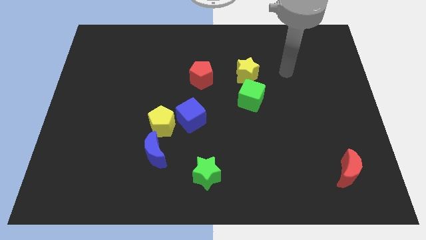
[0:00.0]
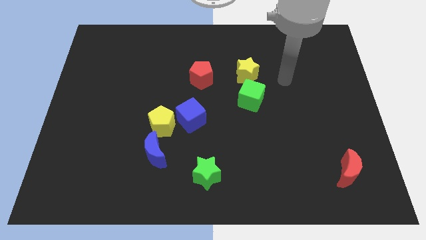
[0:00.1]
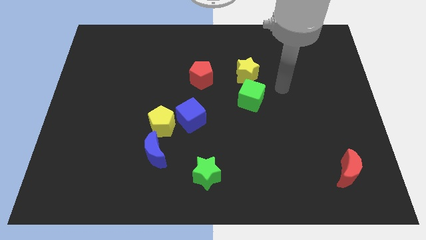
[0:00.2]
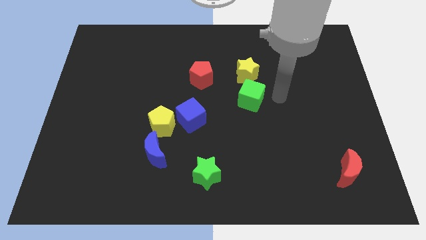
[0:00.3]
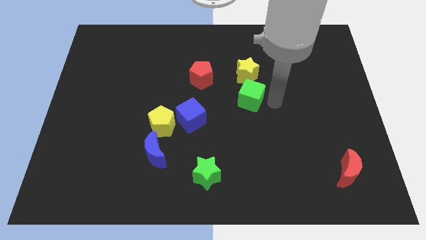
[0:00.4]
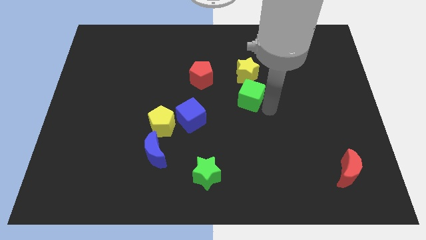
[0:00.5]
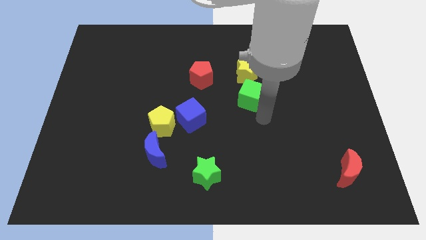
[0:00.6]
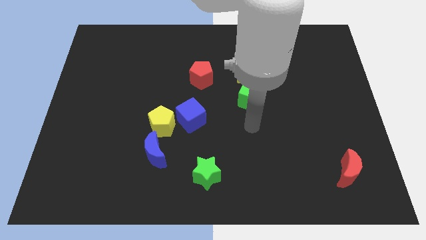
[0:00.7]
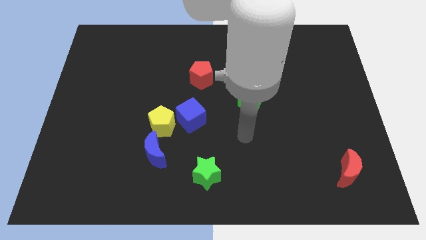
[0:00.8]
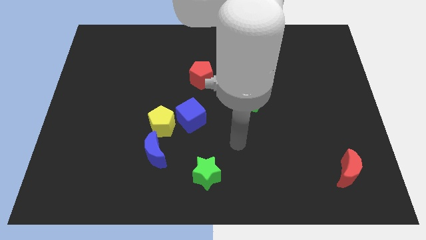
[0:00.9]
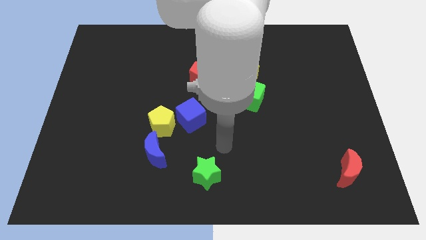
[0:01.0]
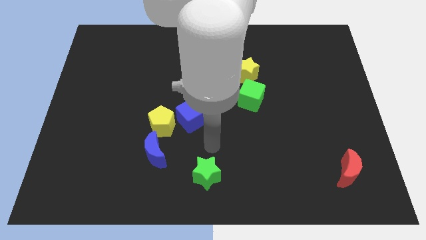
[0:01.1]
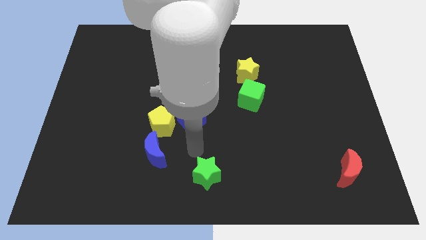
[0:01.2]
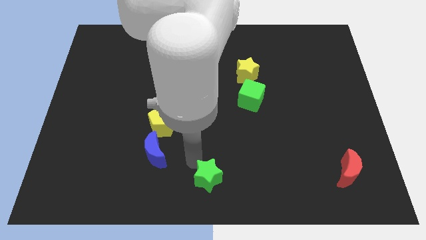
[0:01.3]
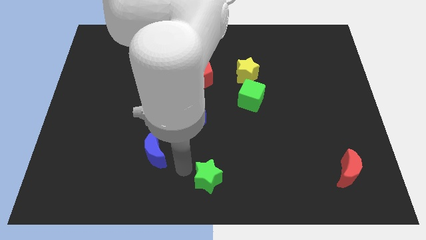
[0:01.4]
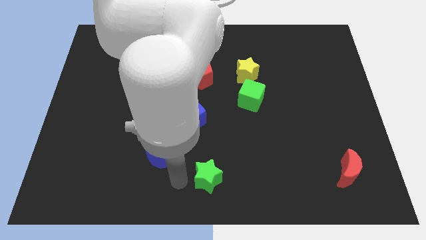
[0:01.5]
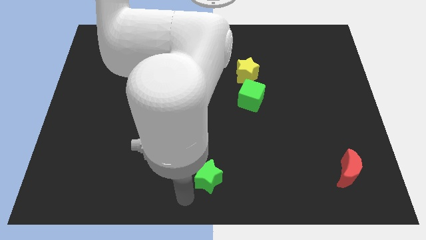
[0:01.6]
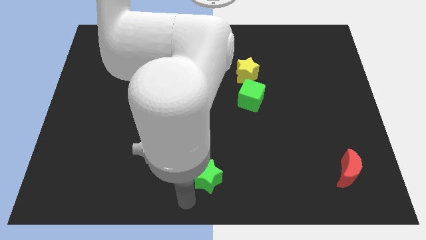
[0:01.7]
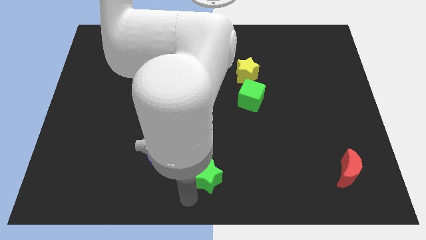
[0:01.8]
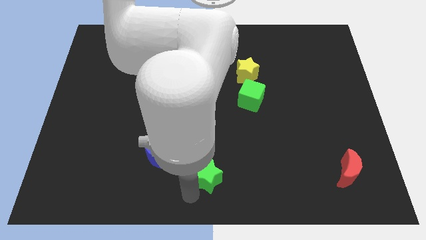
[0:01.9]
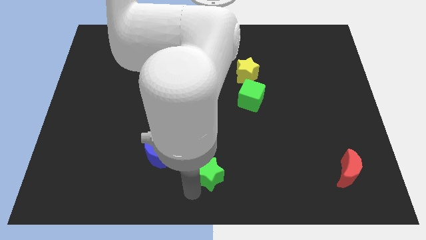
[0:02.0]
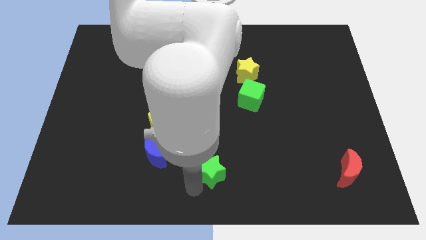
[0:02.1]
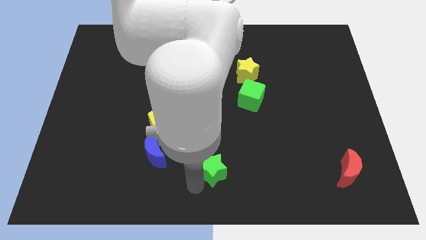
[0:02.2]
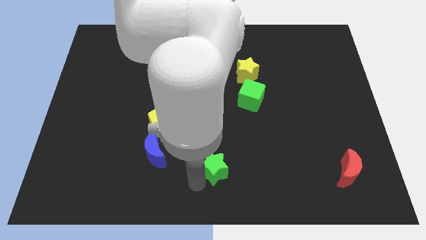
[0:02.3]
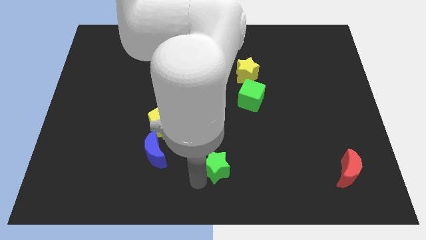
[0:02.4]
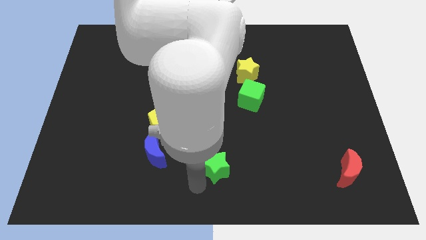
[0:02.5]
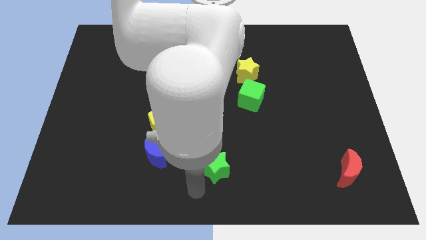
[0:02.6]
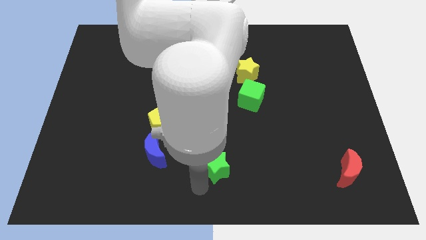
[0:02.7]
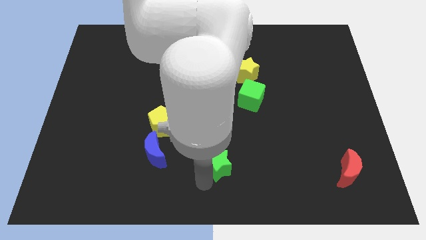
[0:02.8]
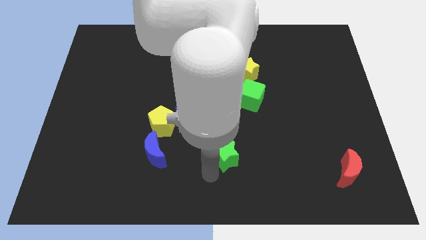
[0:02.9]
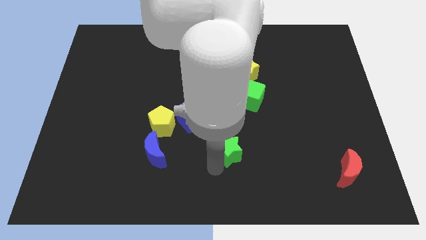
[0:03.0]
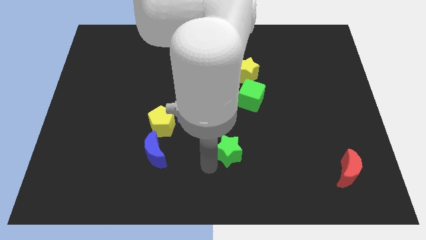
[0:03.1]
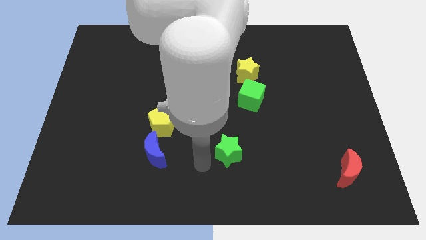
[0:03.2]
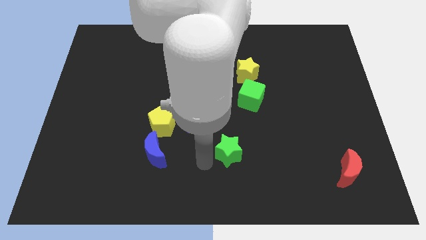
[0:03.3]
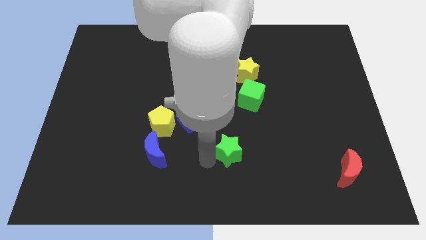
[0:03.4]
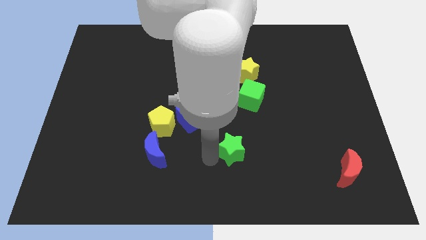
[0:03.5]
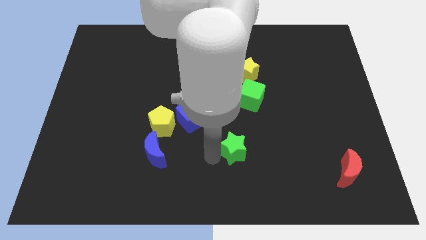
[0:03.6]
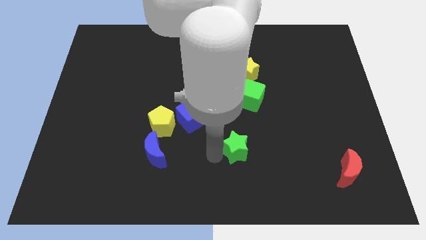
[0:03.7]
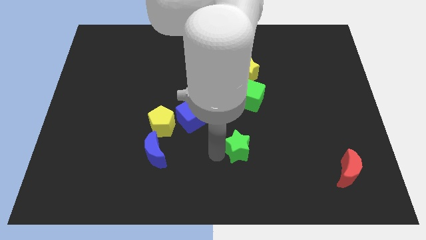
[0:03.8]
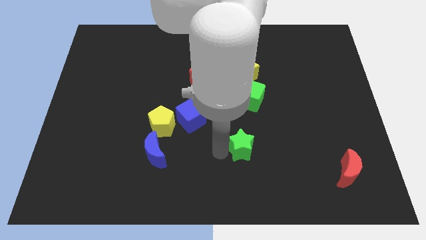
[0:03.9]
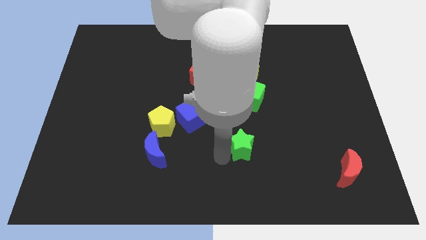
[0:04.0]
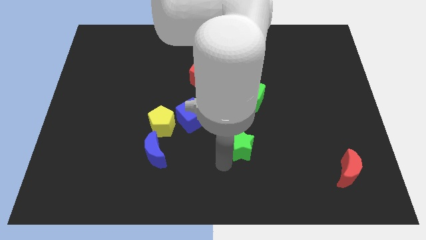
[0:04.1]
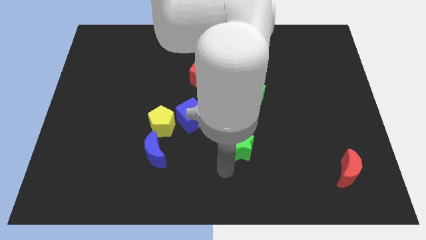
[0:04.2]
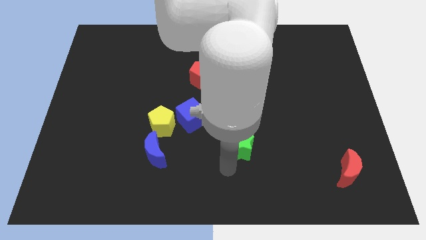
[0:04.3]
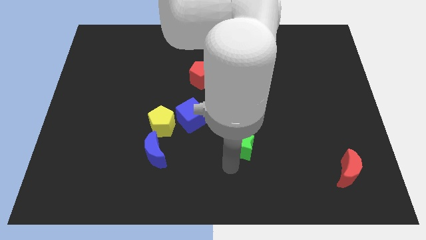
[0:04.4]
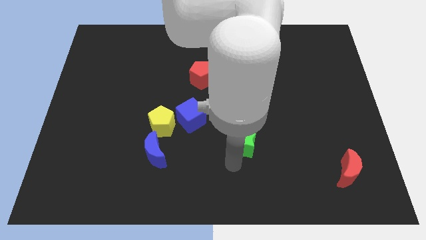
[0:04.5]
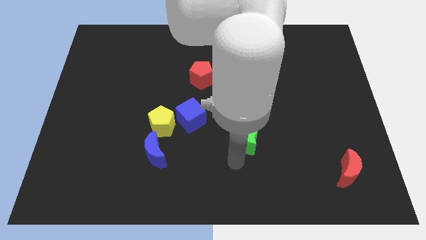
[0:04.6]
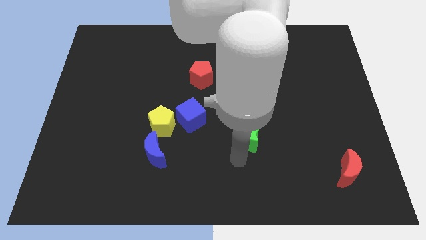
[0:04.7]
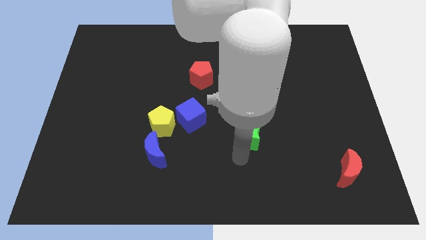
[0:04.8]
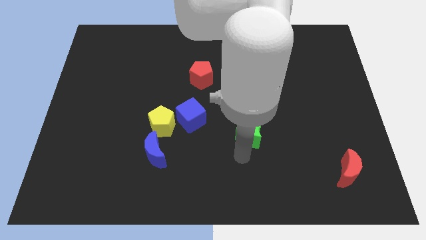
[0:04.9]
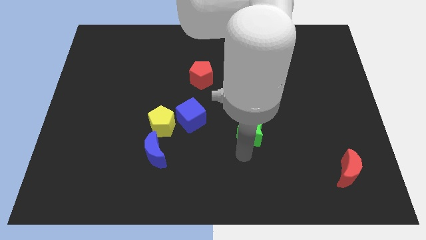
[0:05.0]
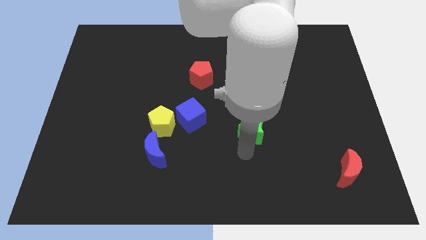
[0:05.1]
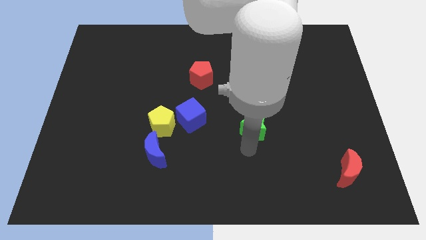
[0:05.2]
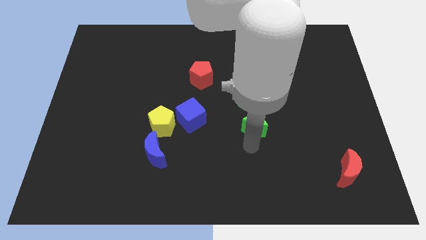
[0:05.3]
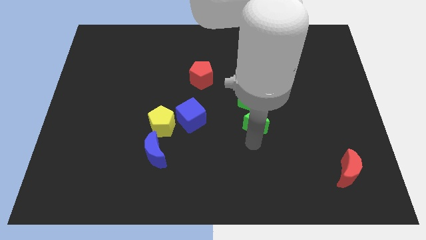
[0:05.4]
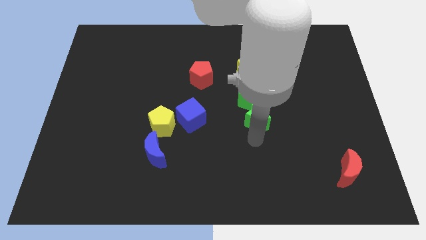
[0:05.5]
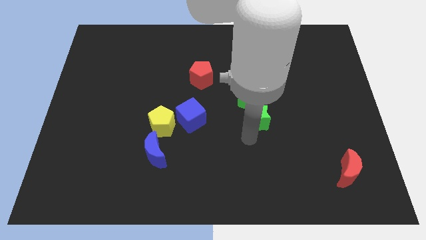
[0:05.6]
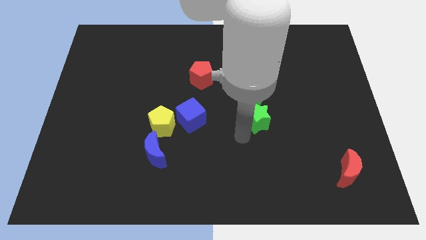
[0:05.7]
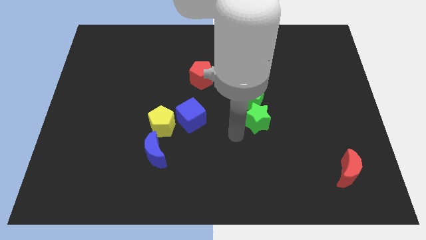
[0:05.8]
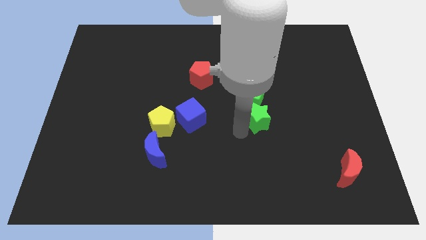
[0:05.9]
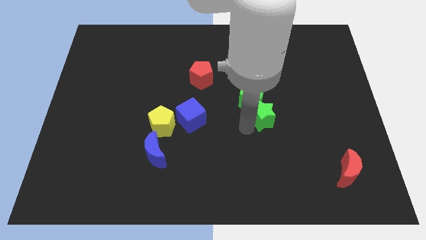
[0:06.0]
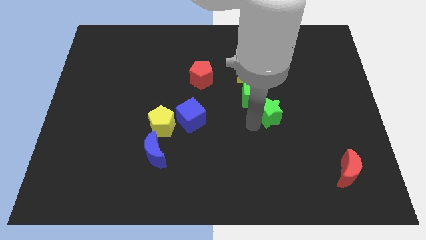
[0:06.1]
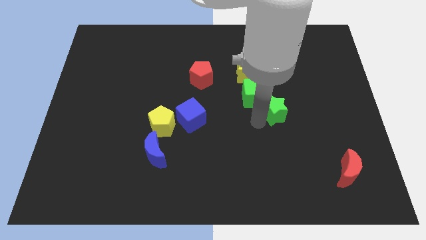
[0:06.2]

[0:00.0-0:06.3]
move the green star just right of the green cube

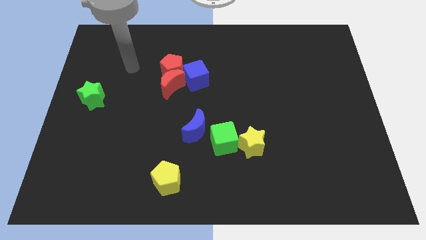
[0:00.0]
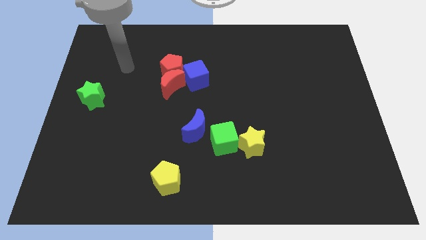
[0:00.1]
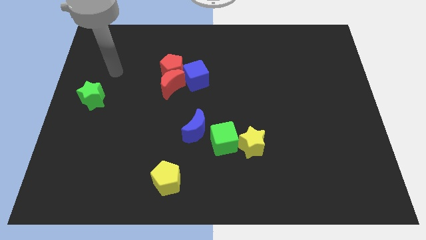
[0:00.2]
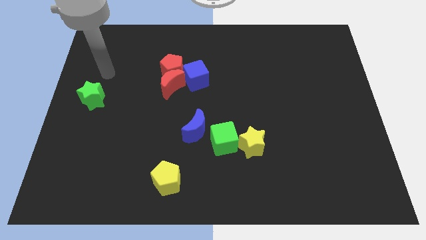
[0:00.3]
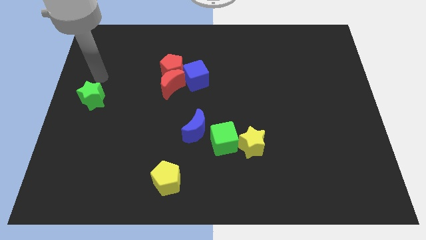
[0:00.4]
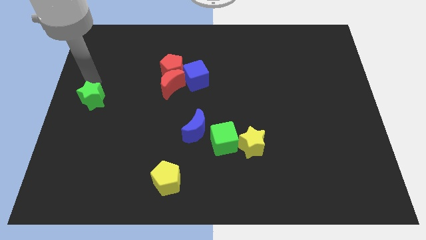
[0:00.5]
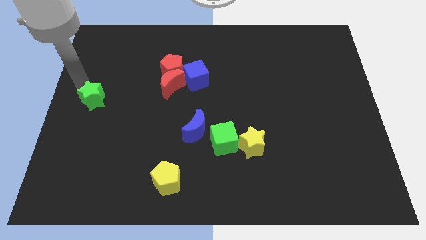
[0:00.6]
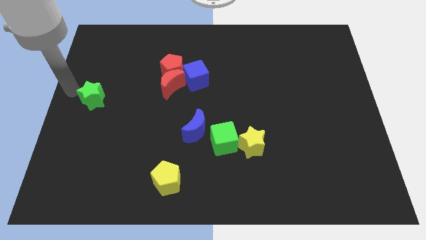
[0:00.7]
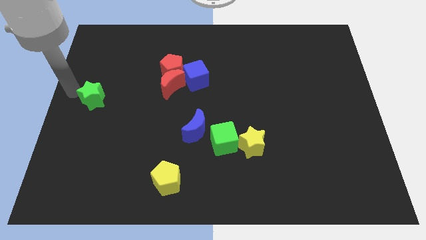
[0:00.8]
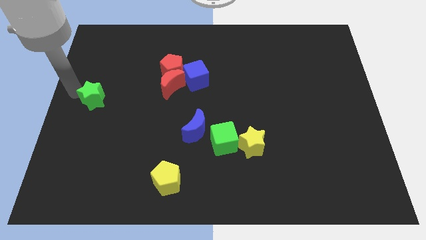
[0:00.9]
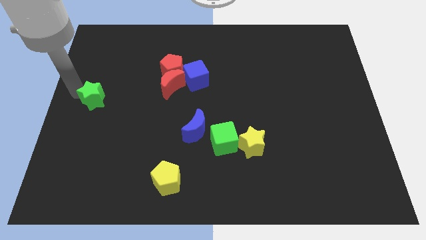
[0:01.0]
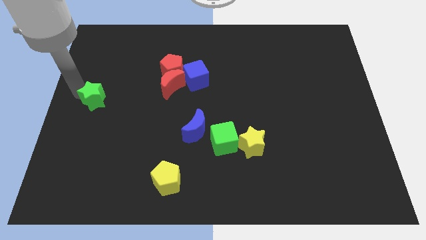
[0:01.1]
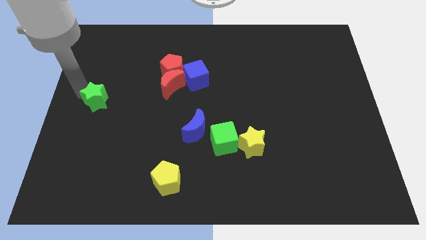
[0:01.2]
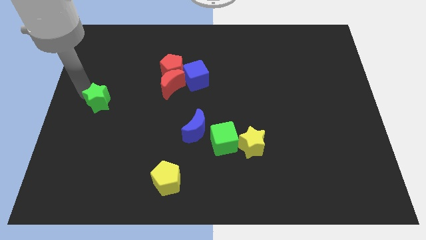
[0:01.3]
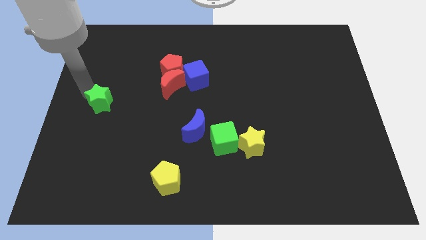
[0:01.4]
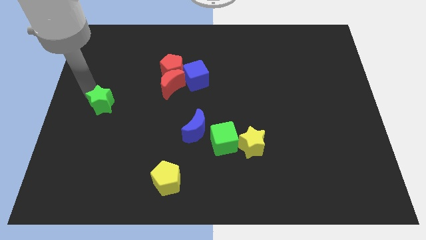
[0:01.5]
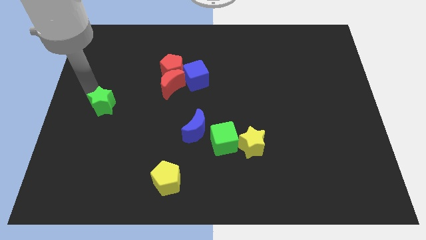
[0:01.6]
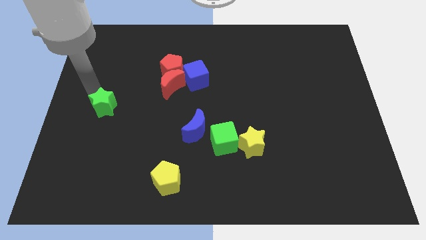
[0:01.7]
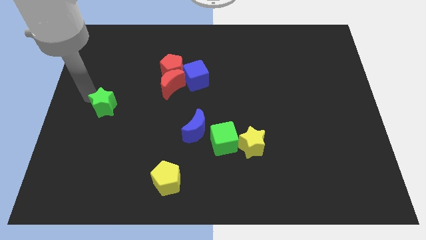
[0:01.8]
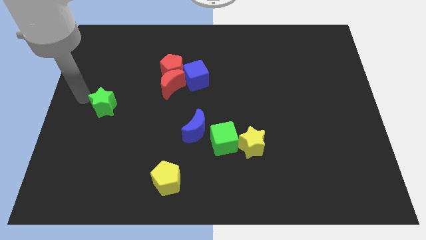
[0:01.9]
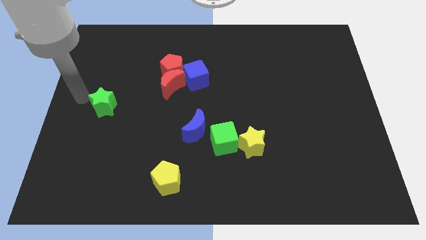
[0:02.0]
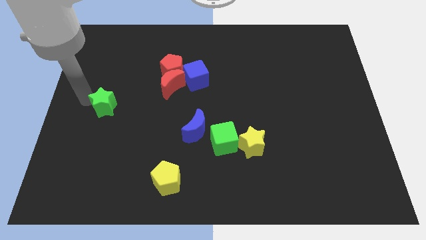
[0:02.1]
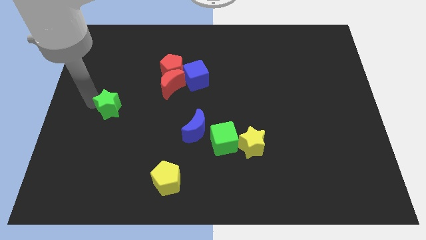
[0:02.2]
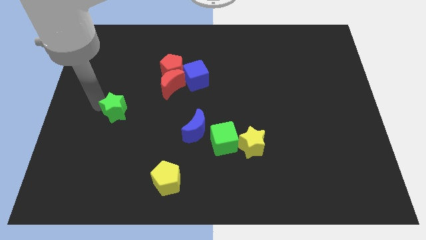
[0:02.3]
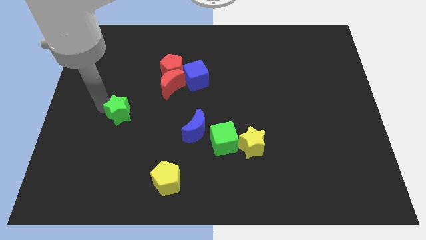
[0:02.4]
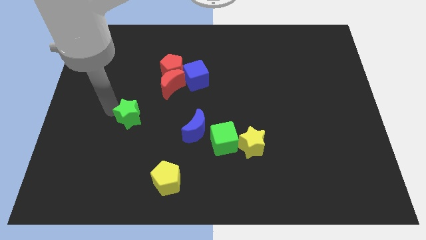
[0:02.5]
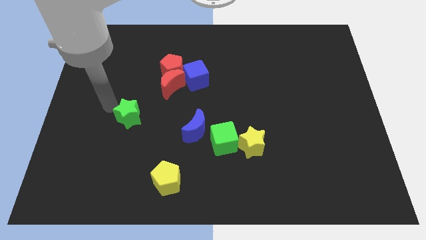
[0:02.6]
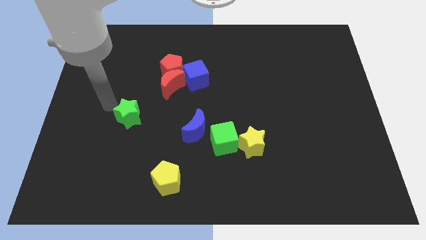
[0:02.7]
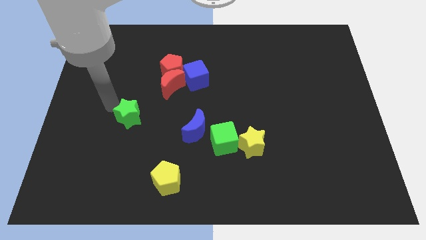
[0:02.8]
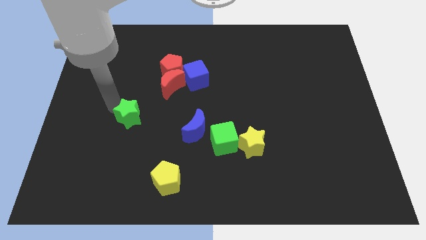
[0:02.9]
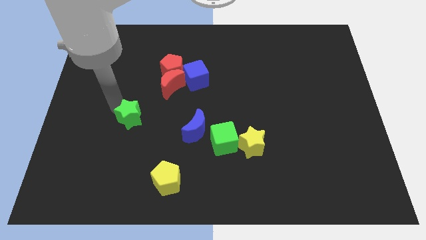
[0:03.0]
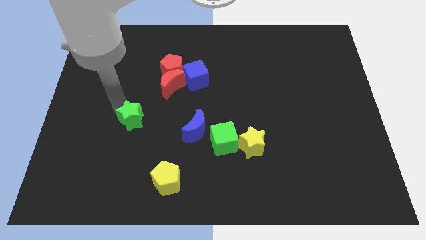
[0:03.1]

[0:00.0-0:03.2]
move the green star to the left side of the blue moon
